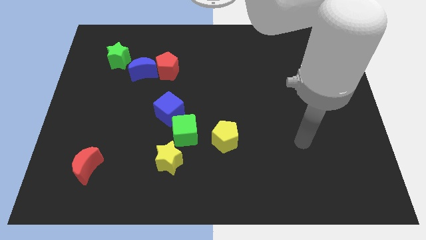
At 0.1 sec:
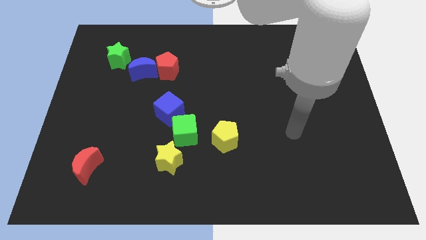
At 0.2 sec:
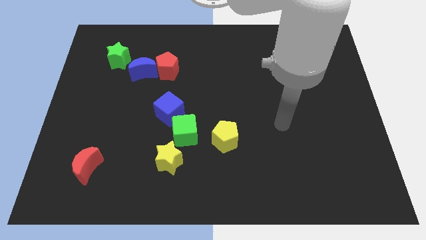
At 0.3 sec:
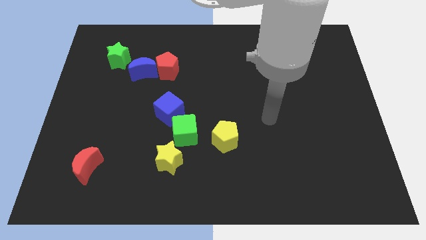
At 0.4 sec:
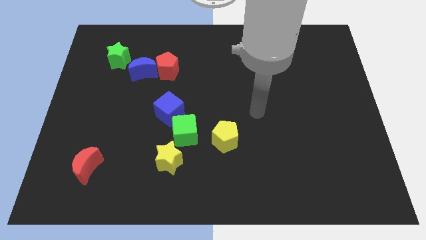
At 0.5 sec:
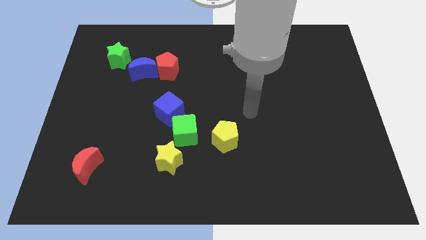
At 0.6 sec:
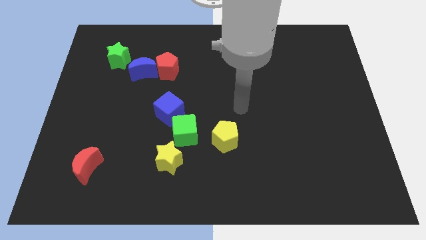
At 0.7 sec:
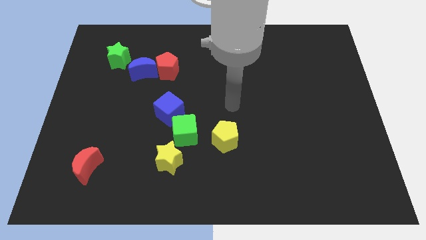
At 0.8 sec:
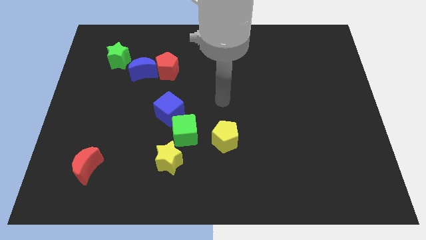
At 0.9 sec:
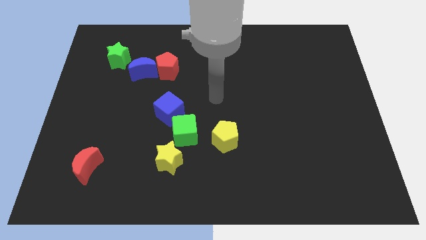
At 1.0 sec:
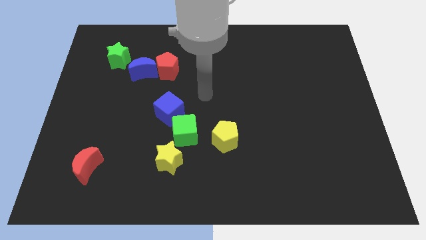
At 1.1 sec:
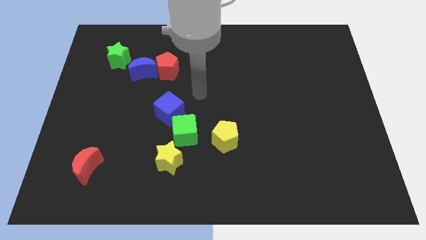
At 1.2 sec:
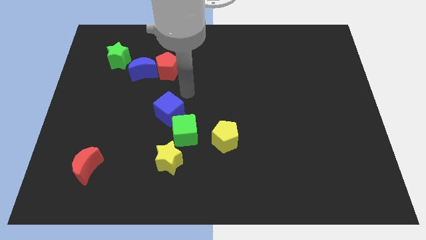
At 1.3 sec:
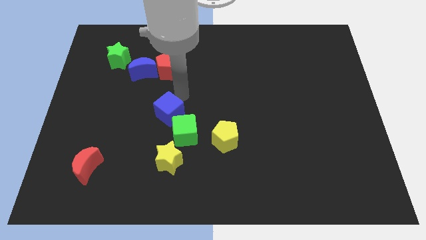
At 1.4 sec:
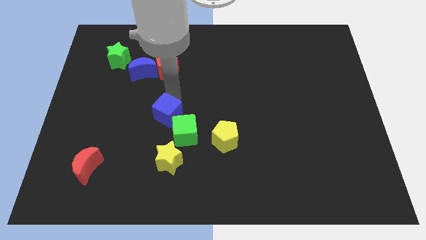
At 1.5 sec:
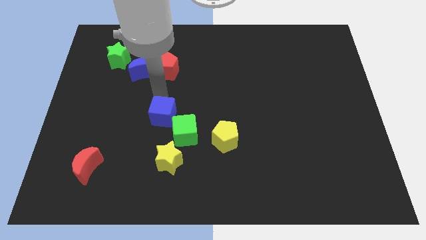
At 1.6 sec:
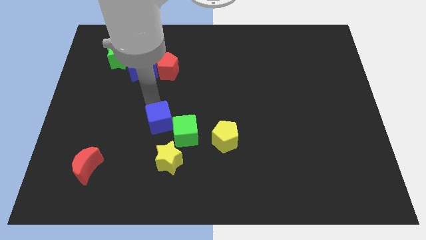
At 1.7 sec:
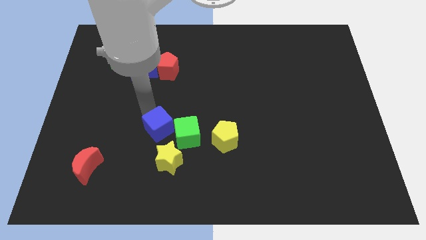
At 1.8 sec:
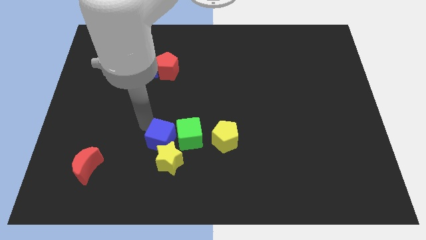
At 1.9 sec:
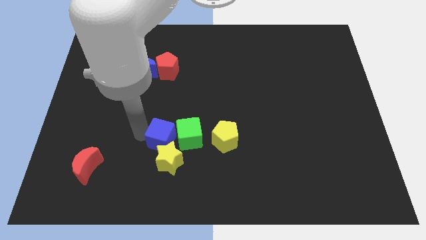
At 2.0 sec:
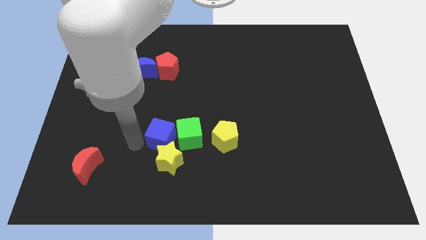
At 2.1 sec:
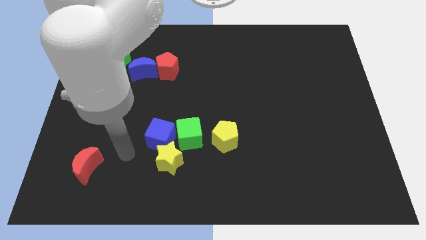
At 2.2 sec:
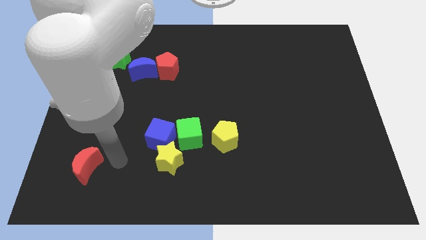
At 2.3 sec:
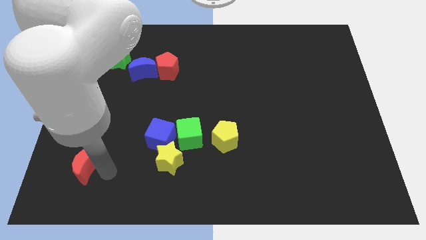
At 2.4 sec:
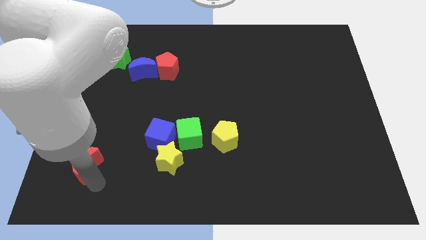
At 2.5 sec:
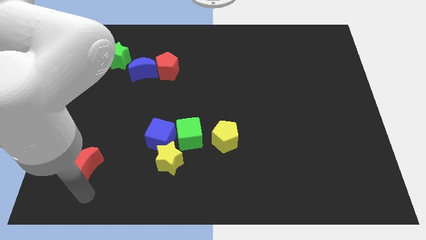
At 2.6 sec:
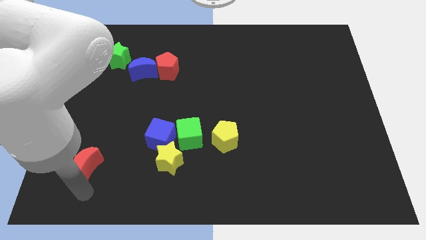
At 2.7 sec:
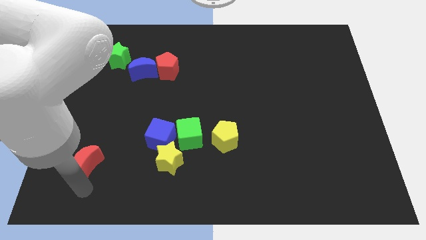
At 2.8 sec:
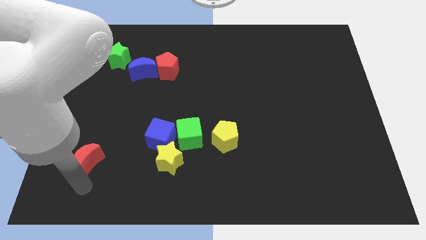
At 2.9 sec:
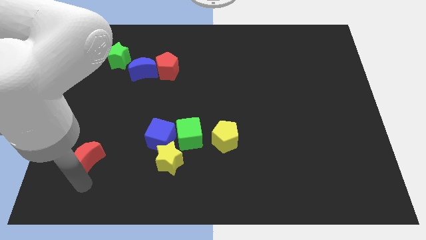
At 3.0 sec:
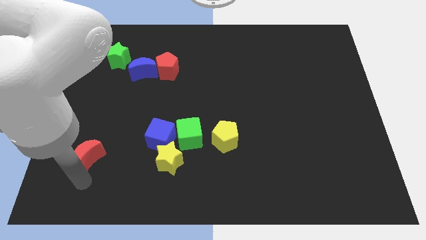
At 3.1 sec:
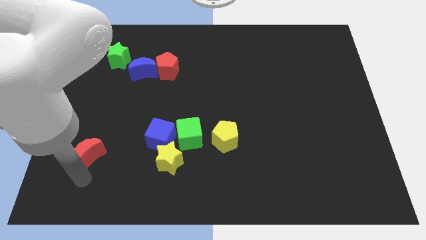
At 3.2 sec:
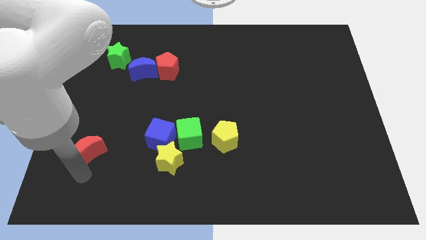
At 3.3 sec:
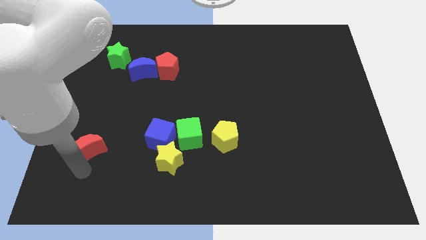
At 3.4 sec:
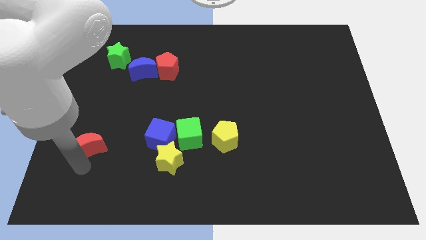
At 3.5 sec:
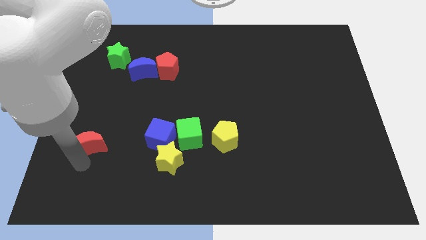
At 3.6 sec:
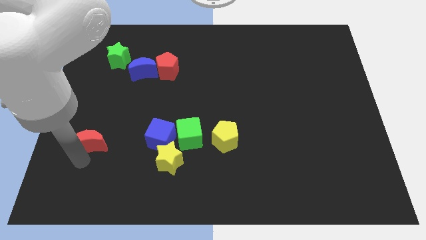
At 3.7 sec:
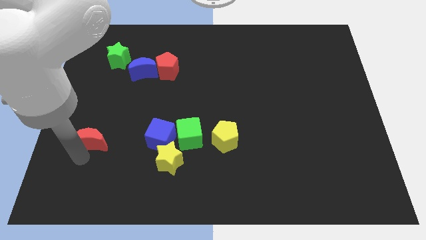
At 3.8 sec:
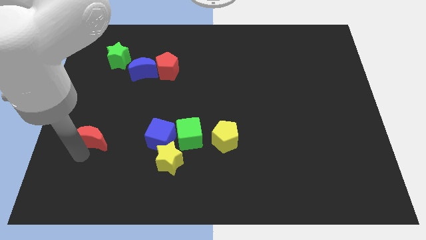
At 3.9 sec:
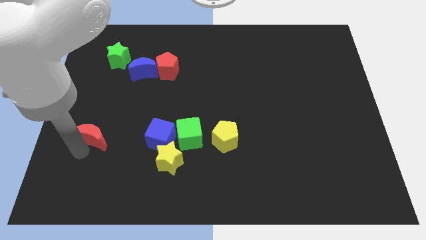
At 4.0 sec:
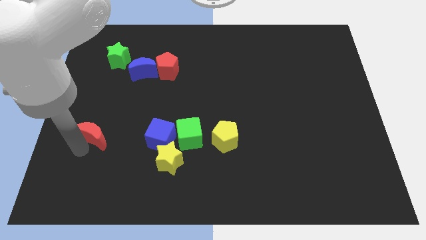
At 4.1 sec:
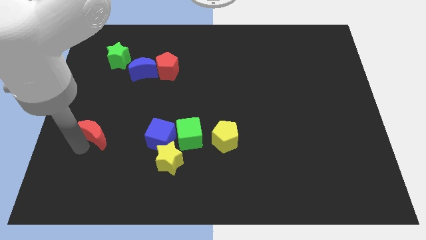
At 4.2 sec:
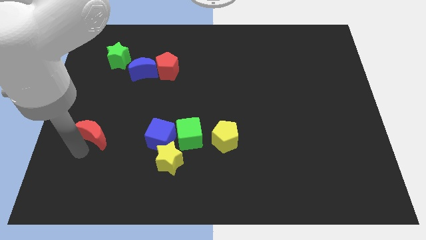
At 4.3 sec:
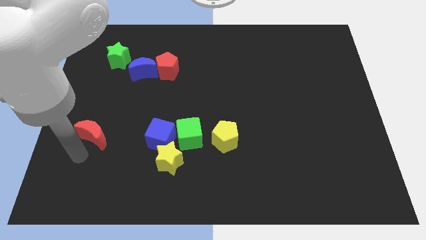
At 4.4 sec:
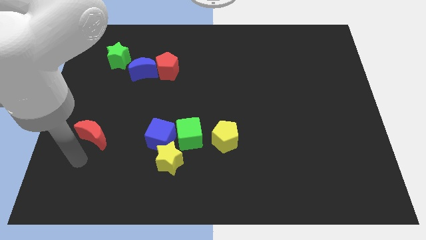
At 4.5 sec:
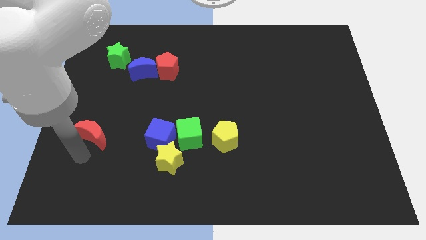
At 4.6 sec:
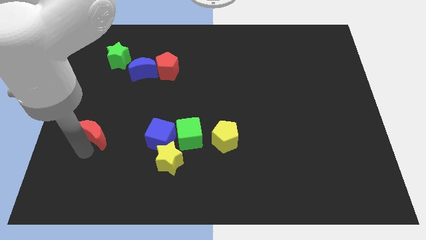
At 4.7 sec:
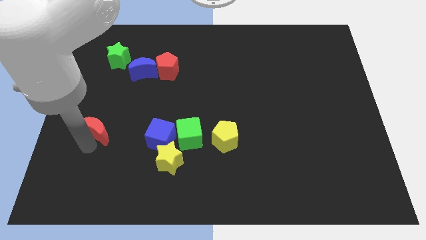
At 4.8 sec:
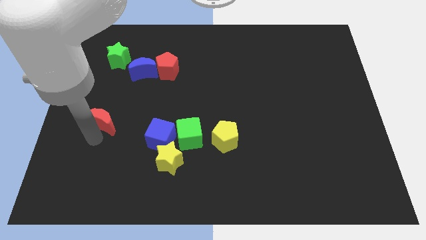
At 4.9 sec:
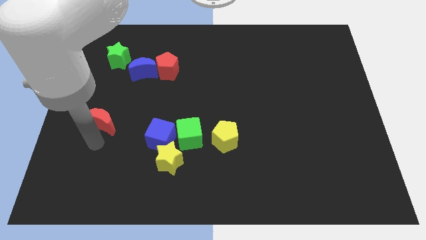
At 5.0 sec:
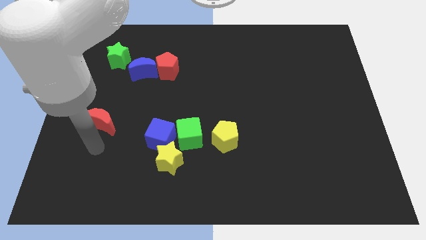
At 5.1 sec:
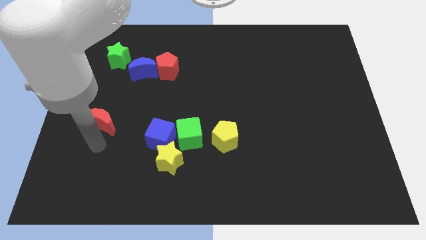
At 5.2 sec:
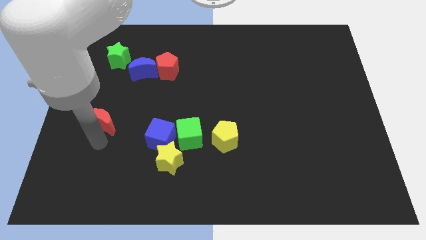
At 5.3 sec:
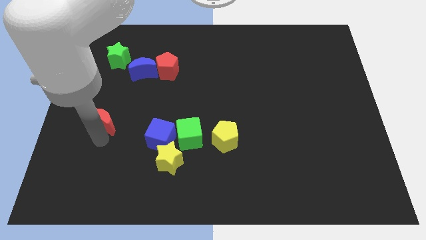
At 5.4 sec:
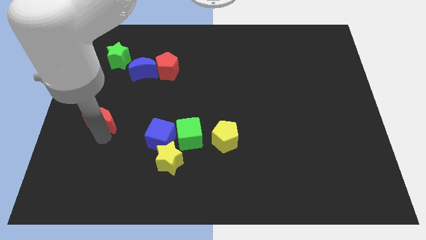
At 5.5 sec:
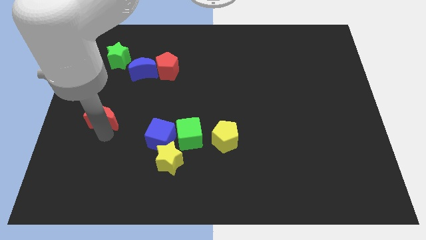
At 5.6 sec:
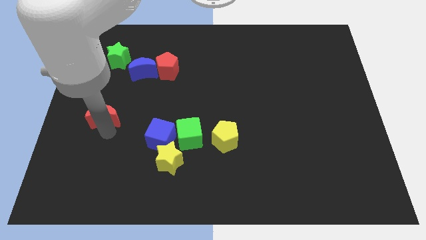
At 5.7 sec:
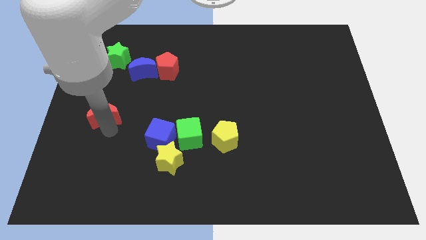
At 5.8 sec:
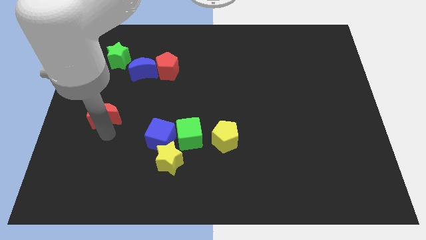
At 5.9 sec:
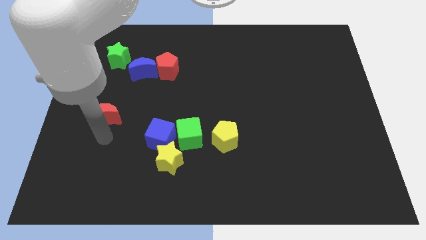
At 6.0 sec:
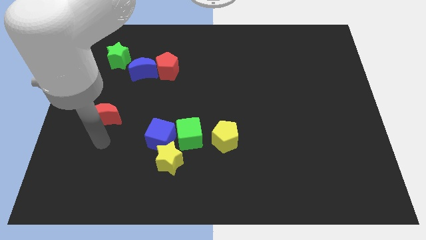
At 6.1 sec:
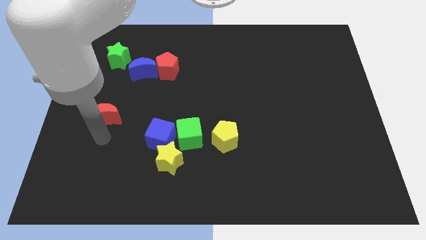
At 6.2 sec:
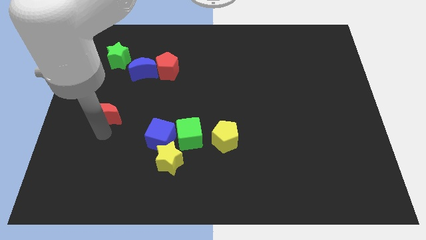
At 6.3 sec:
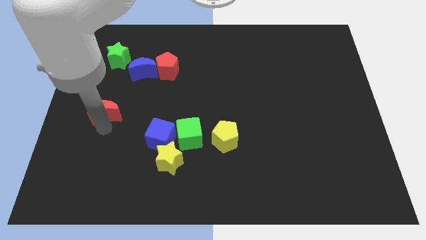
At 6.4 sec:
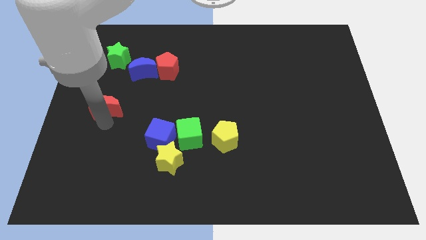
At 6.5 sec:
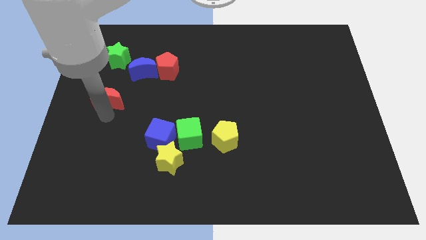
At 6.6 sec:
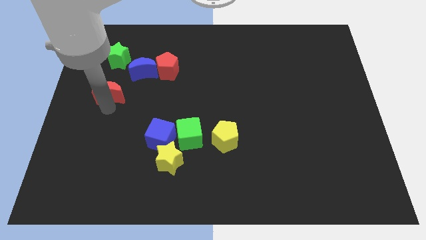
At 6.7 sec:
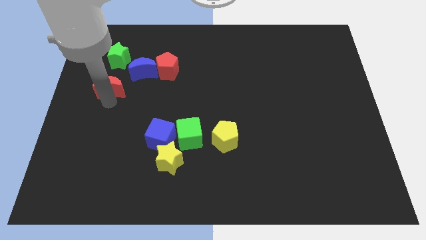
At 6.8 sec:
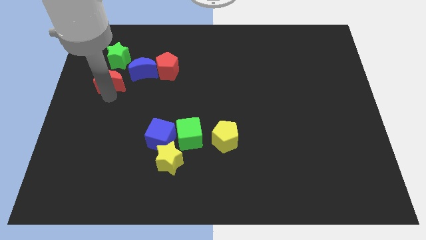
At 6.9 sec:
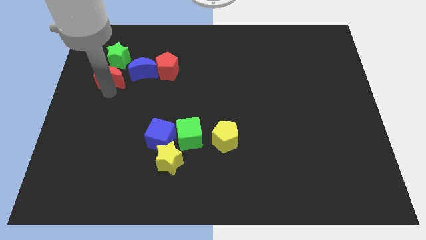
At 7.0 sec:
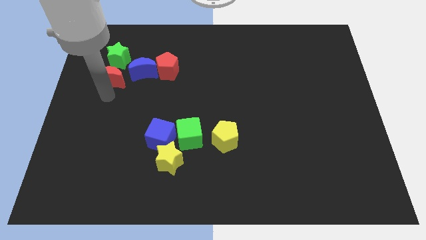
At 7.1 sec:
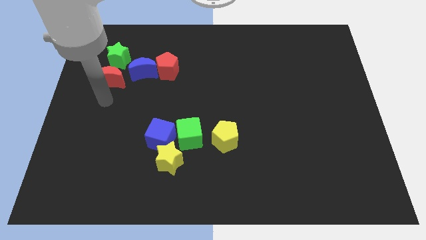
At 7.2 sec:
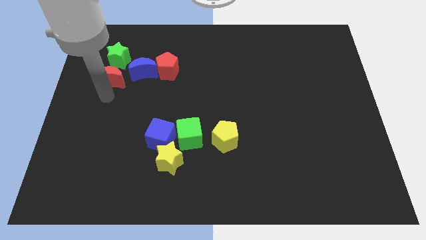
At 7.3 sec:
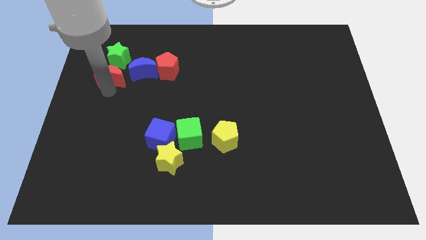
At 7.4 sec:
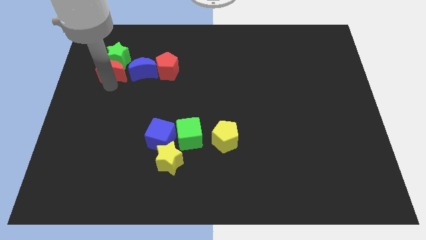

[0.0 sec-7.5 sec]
move the red moon to the green star

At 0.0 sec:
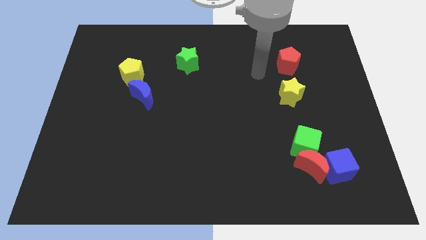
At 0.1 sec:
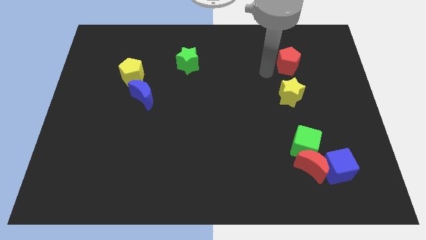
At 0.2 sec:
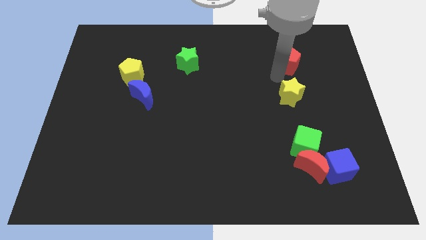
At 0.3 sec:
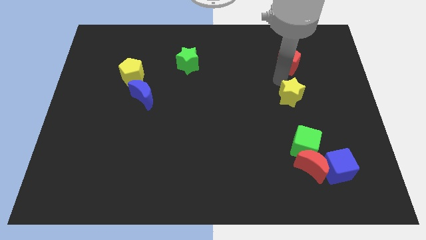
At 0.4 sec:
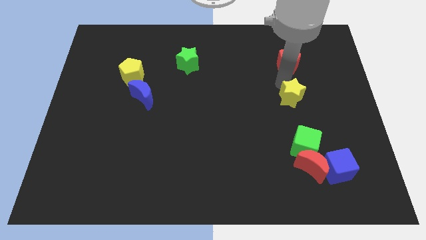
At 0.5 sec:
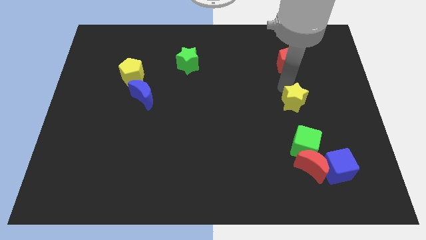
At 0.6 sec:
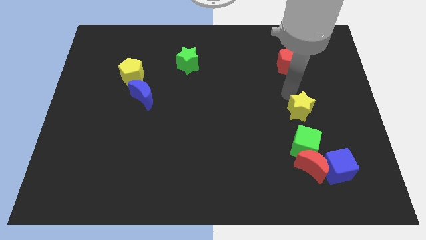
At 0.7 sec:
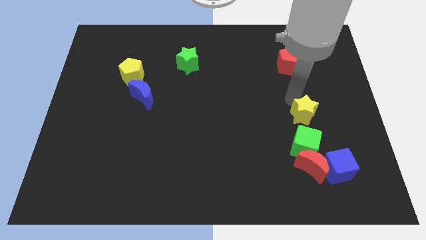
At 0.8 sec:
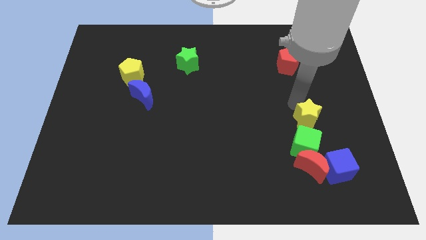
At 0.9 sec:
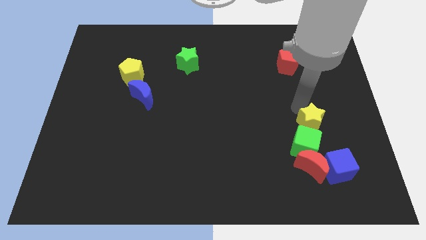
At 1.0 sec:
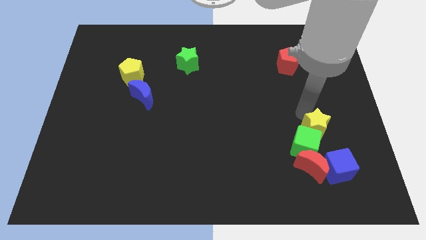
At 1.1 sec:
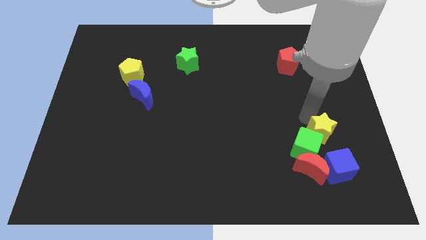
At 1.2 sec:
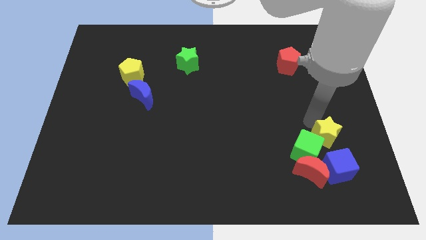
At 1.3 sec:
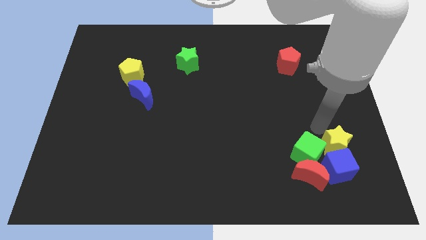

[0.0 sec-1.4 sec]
put the yellow star towards the blue cube
